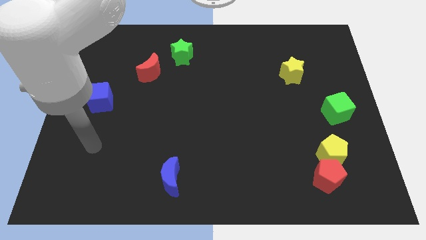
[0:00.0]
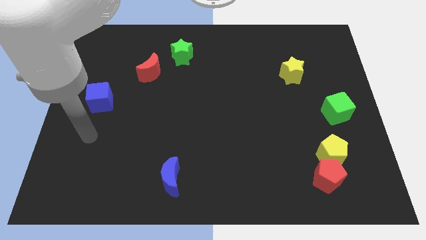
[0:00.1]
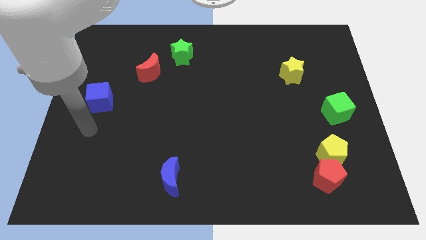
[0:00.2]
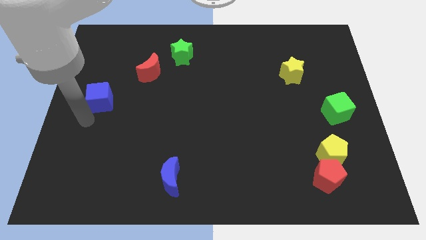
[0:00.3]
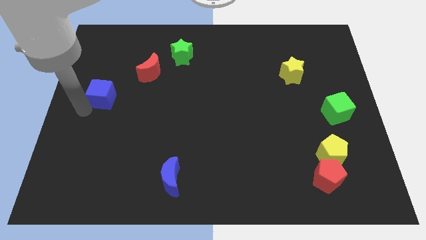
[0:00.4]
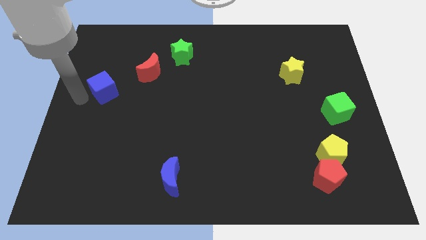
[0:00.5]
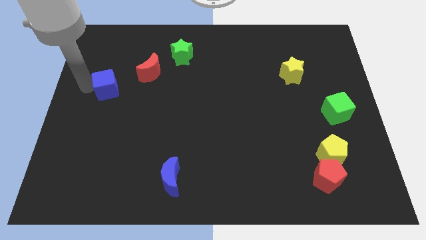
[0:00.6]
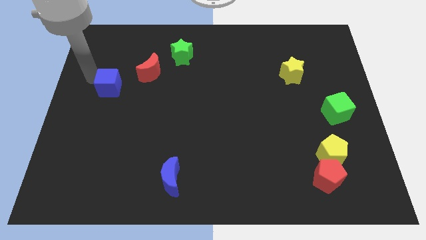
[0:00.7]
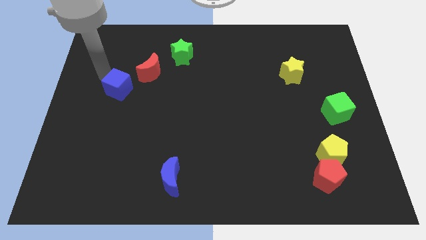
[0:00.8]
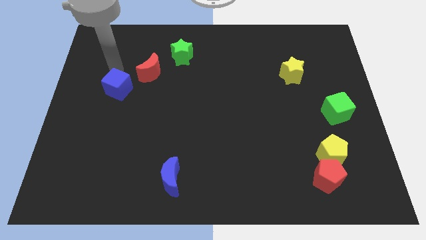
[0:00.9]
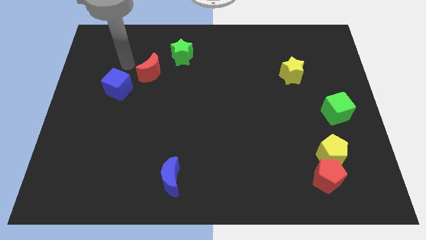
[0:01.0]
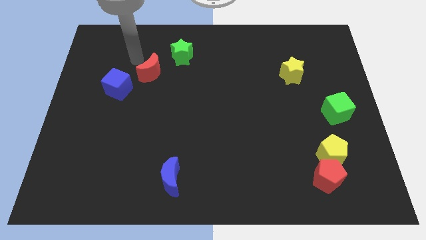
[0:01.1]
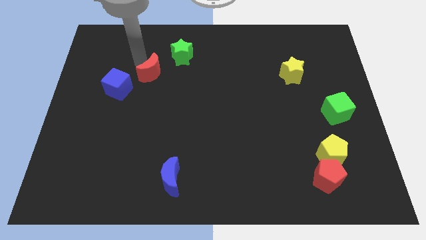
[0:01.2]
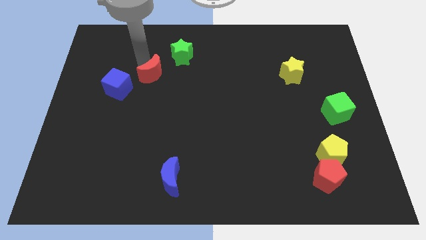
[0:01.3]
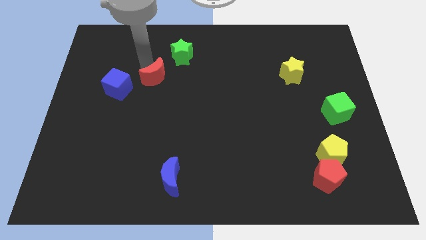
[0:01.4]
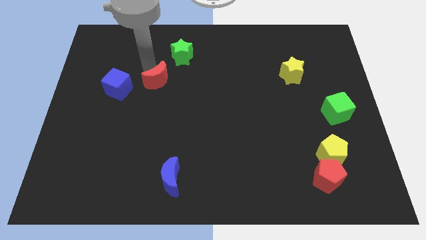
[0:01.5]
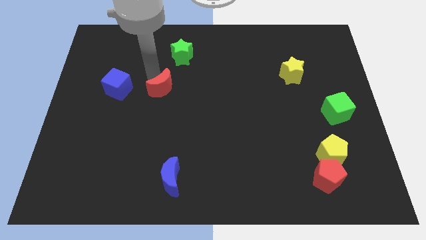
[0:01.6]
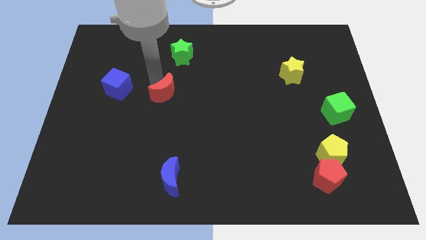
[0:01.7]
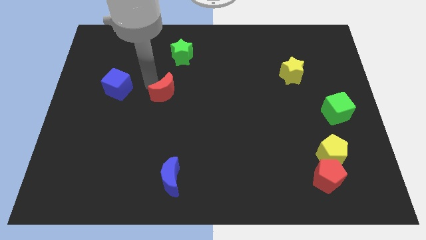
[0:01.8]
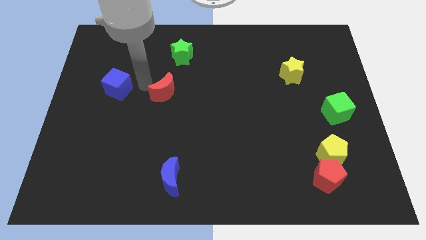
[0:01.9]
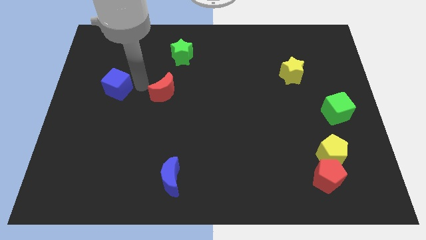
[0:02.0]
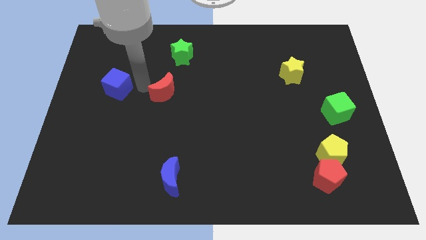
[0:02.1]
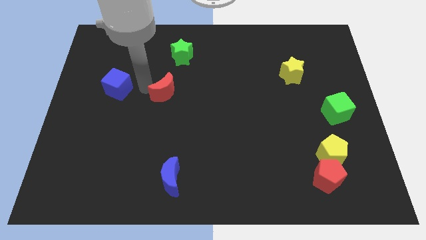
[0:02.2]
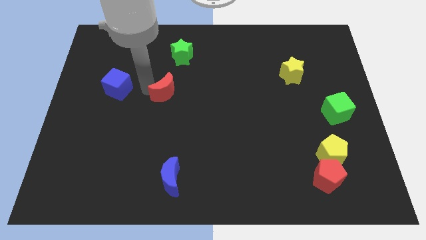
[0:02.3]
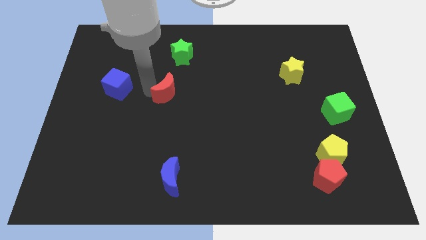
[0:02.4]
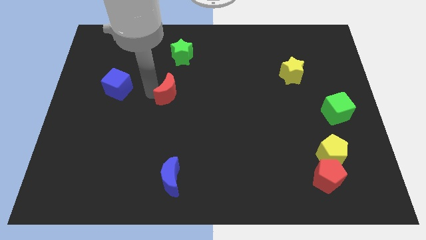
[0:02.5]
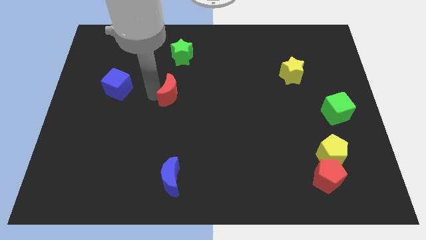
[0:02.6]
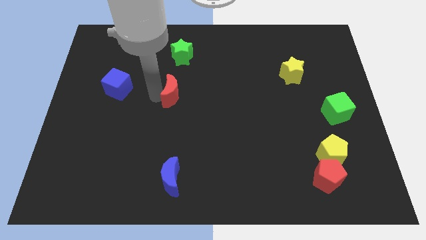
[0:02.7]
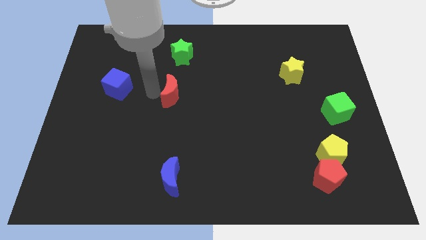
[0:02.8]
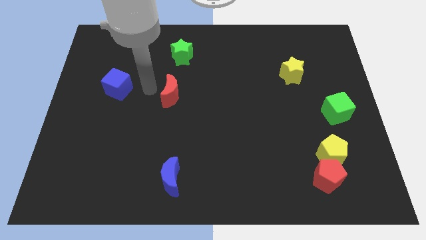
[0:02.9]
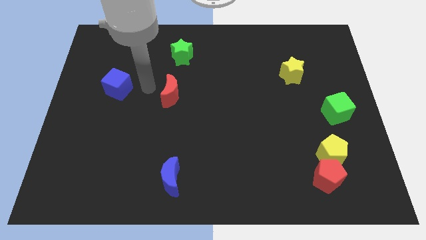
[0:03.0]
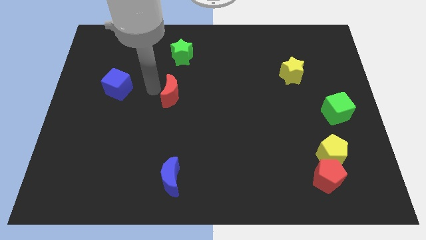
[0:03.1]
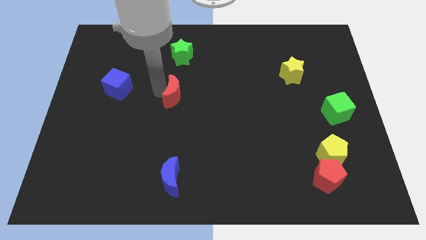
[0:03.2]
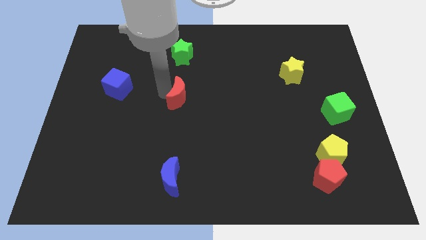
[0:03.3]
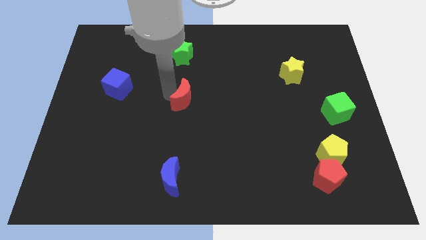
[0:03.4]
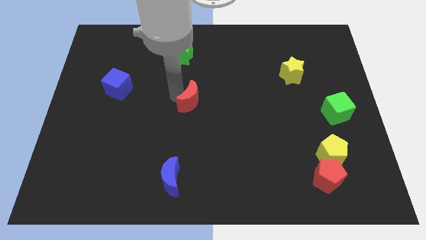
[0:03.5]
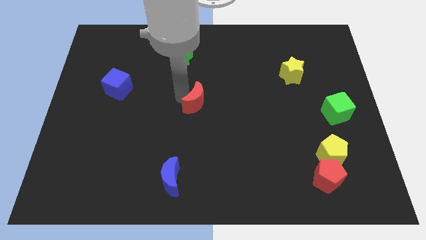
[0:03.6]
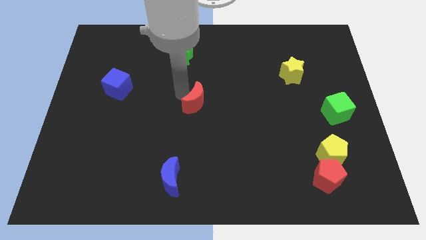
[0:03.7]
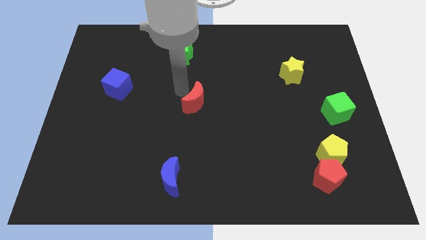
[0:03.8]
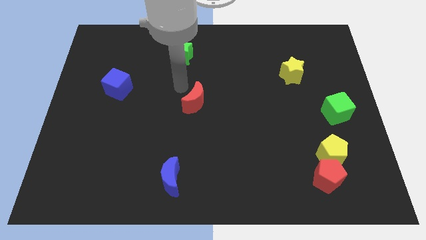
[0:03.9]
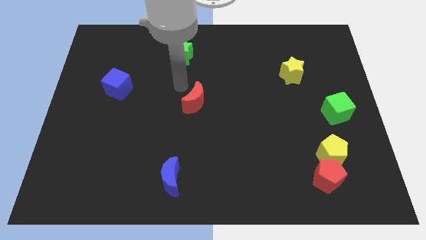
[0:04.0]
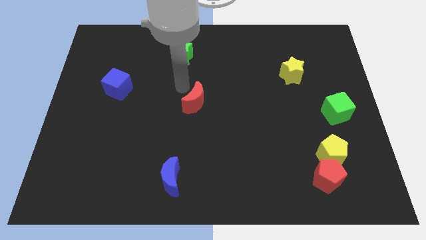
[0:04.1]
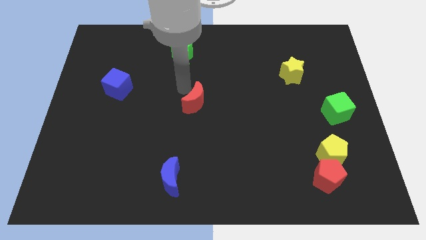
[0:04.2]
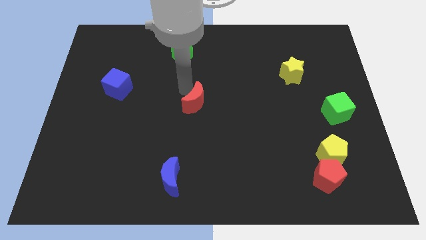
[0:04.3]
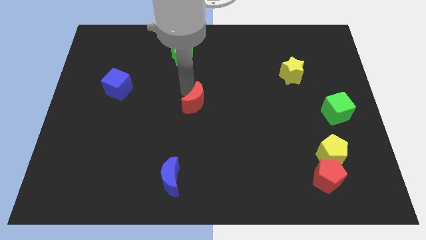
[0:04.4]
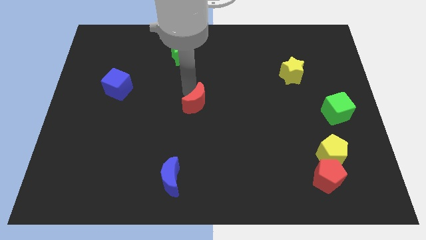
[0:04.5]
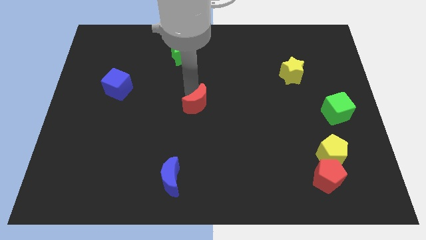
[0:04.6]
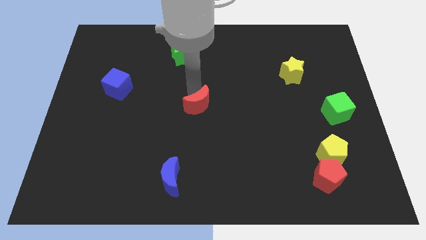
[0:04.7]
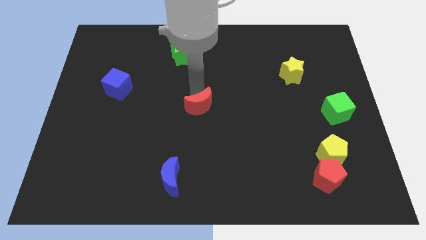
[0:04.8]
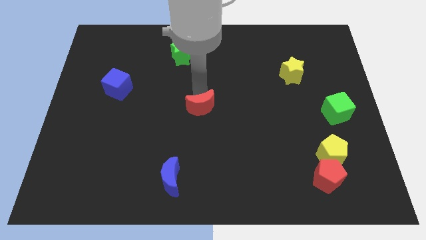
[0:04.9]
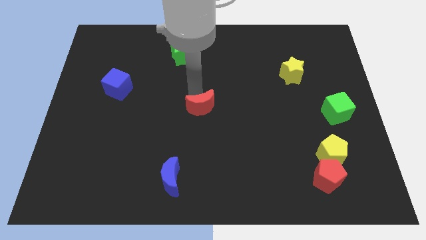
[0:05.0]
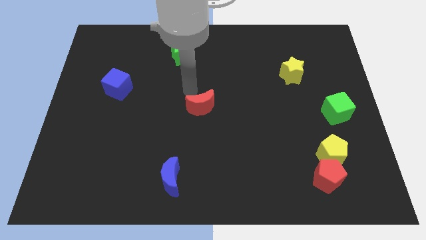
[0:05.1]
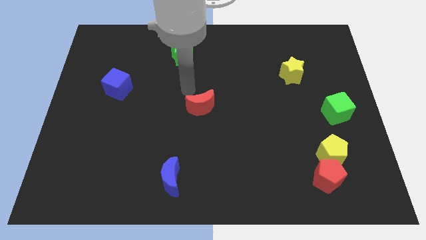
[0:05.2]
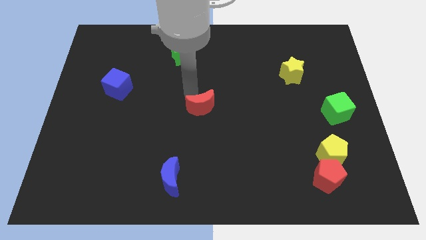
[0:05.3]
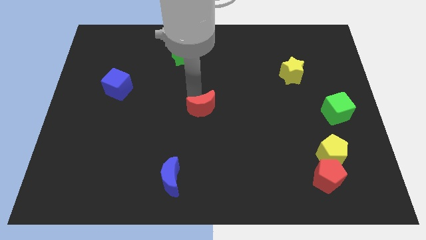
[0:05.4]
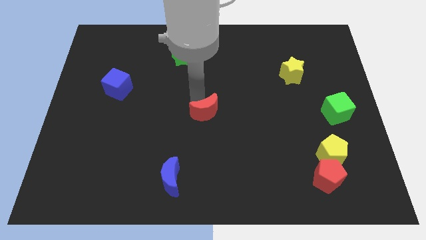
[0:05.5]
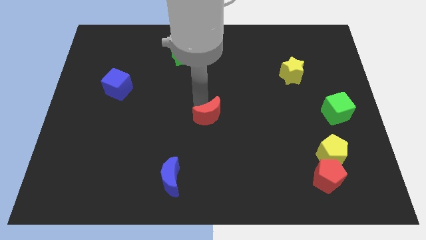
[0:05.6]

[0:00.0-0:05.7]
push the red moon down and then to the right

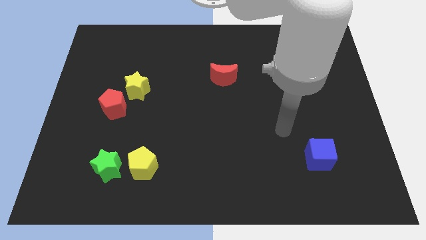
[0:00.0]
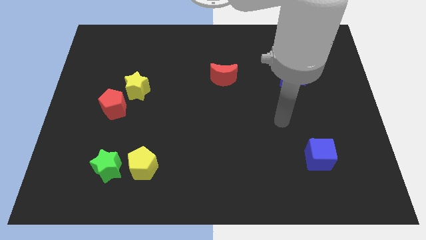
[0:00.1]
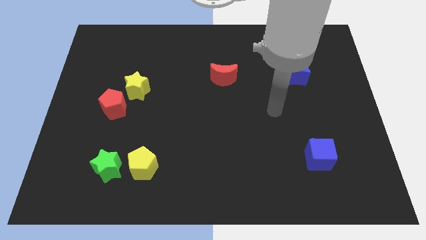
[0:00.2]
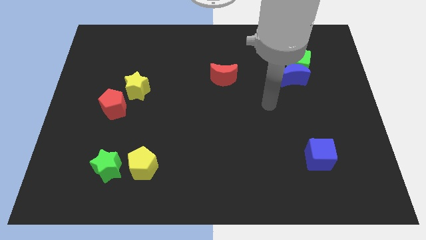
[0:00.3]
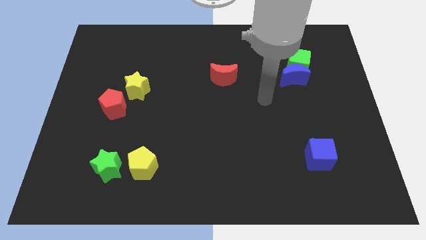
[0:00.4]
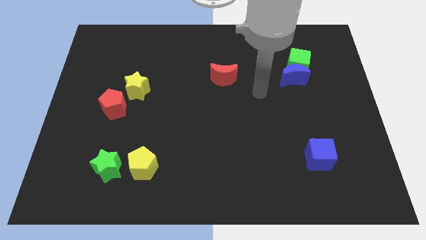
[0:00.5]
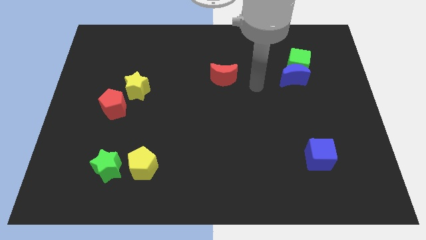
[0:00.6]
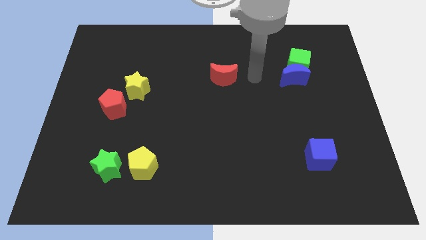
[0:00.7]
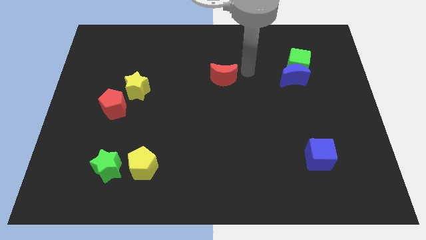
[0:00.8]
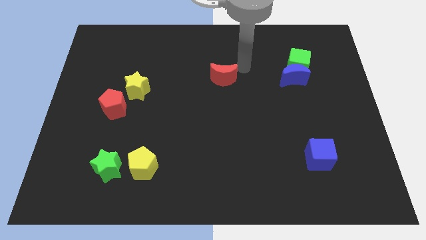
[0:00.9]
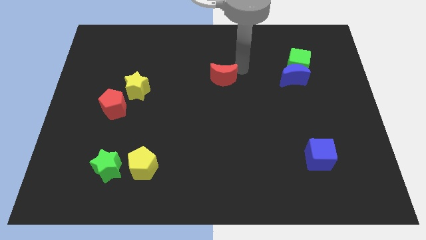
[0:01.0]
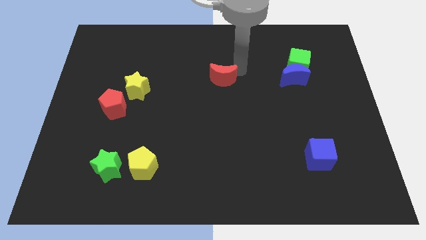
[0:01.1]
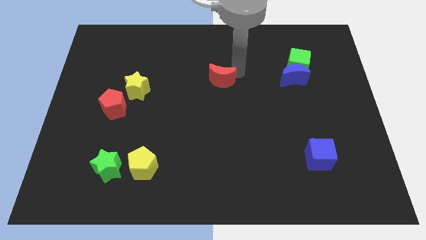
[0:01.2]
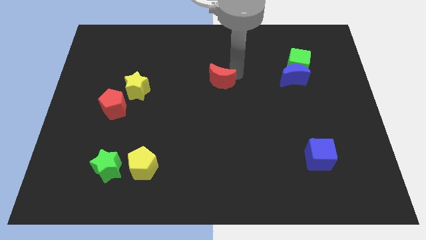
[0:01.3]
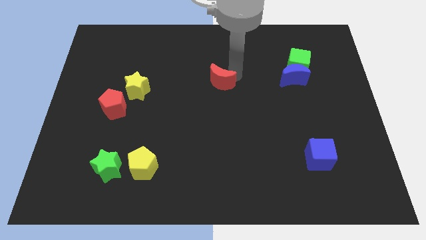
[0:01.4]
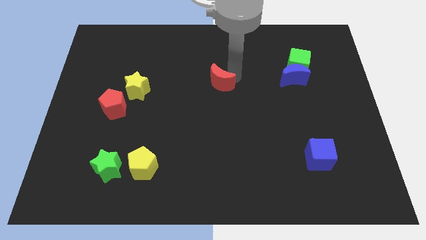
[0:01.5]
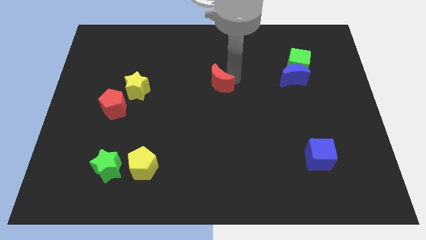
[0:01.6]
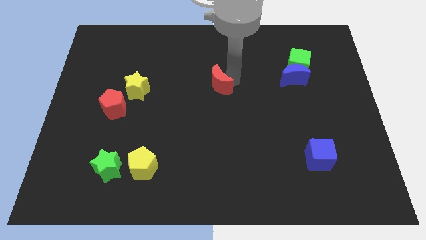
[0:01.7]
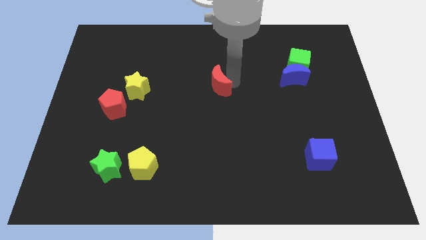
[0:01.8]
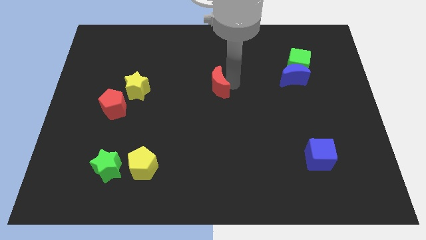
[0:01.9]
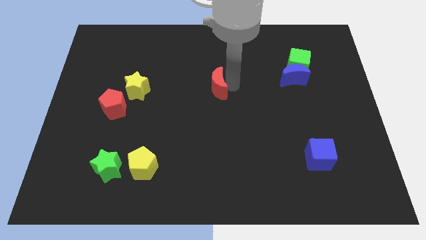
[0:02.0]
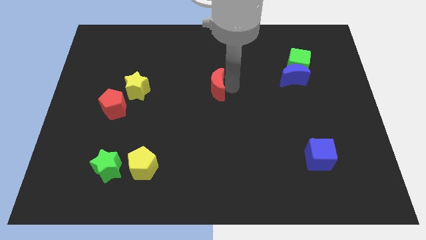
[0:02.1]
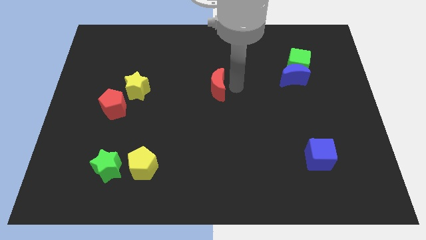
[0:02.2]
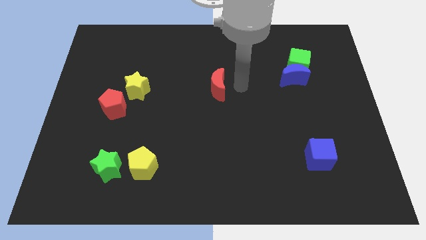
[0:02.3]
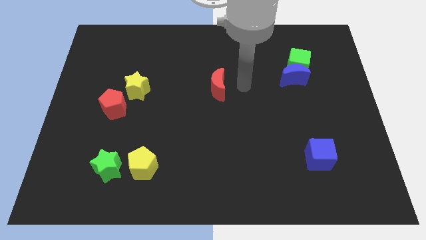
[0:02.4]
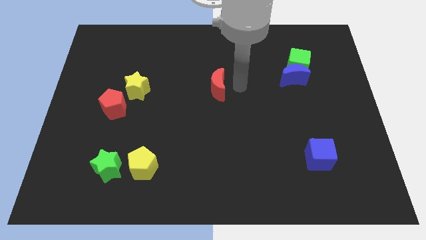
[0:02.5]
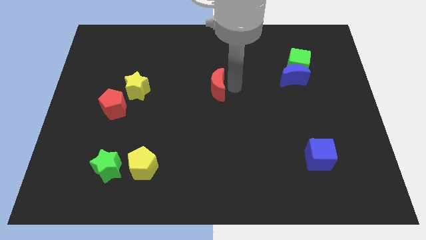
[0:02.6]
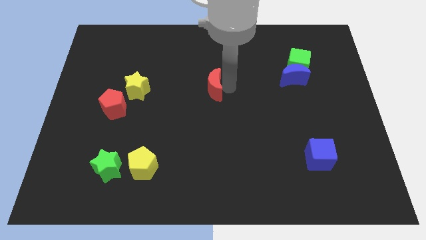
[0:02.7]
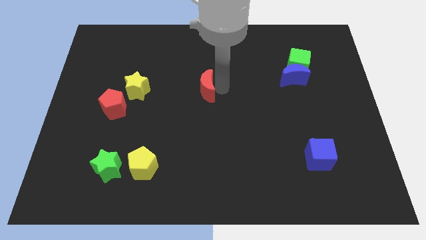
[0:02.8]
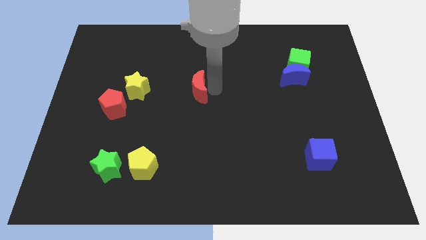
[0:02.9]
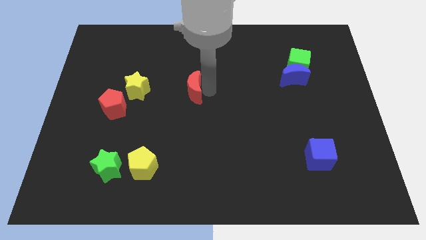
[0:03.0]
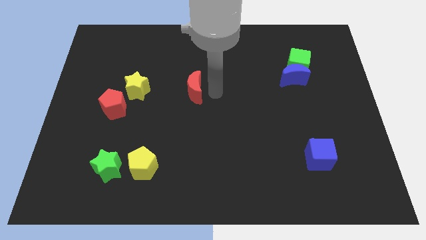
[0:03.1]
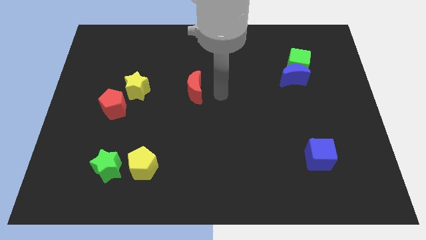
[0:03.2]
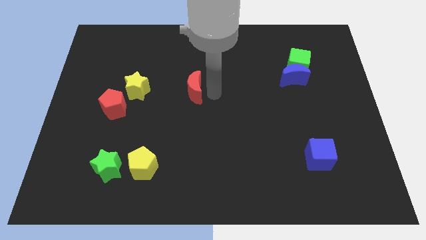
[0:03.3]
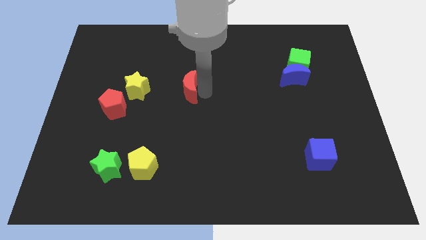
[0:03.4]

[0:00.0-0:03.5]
slightly slide the red moon left
